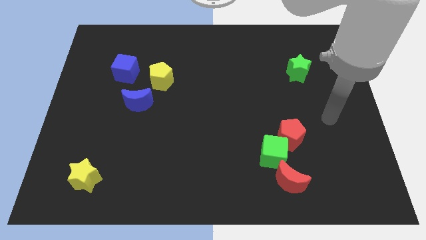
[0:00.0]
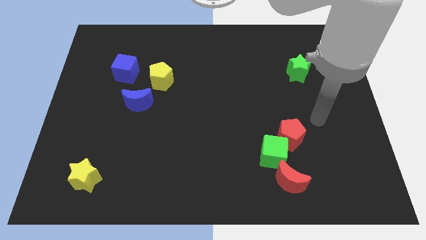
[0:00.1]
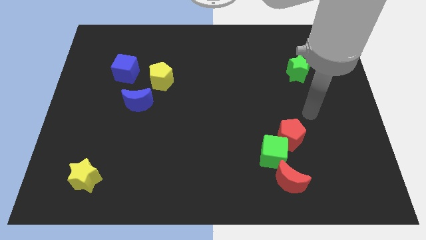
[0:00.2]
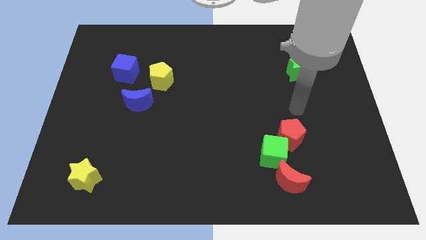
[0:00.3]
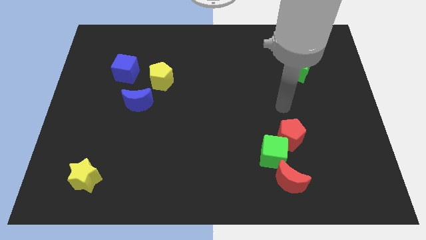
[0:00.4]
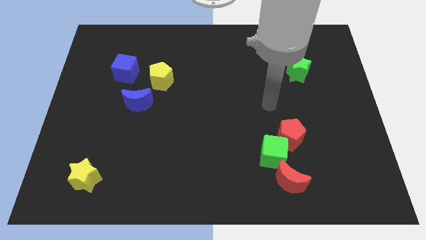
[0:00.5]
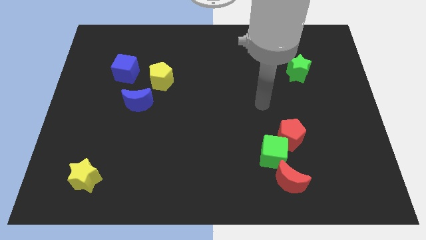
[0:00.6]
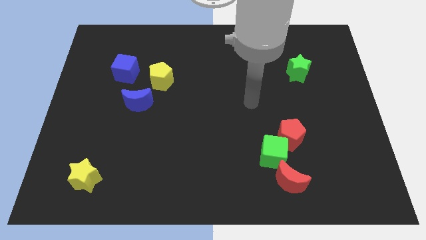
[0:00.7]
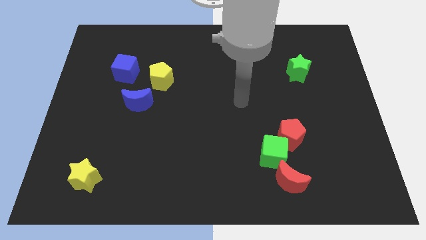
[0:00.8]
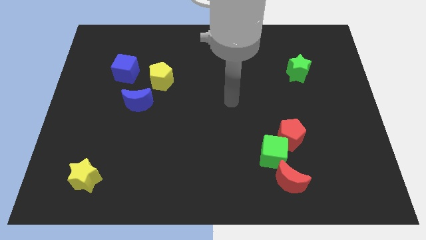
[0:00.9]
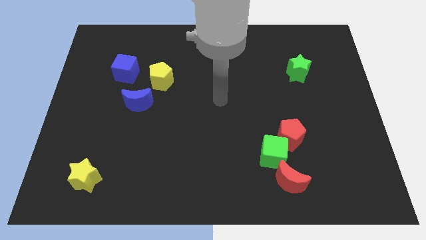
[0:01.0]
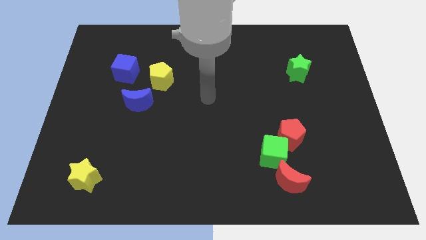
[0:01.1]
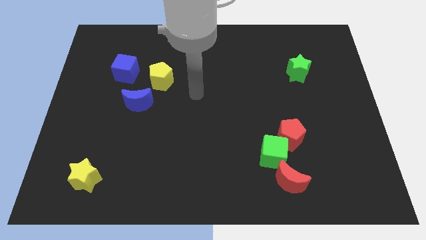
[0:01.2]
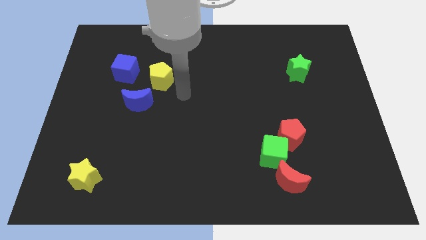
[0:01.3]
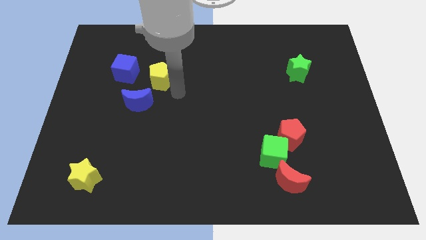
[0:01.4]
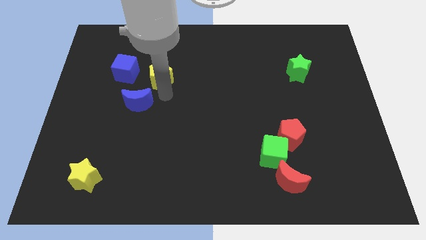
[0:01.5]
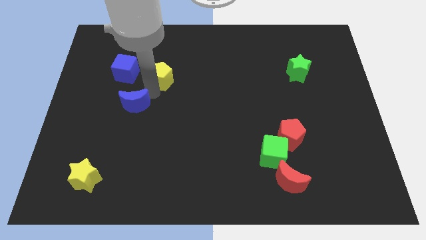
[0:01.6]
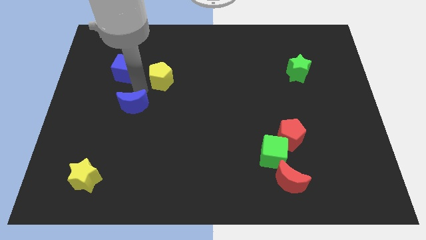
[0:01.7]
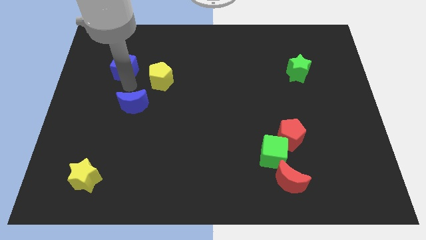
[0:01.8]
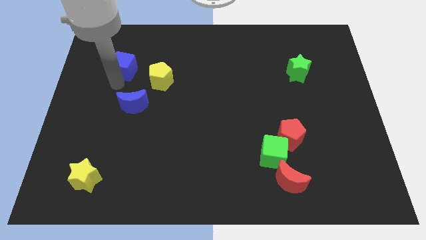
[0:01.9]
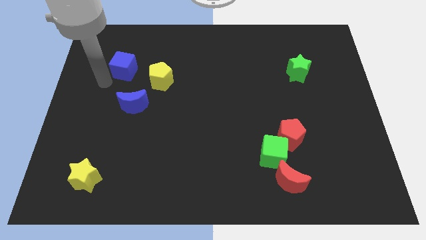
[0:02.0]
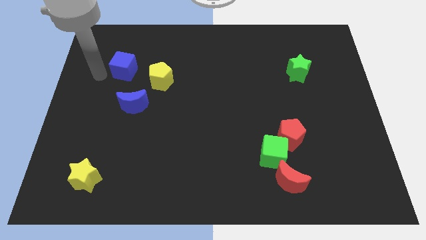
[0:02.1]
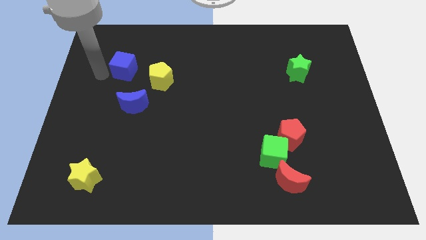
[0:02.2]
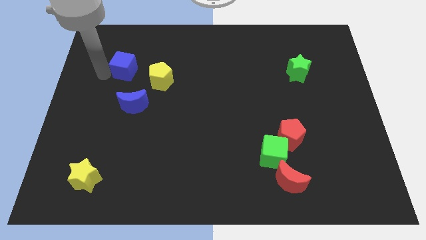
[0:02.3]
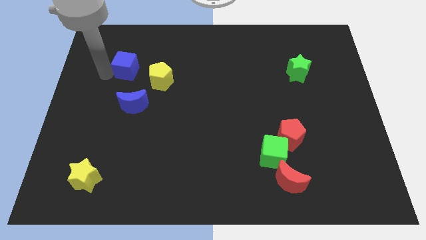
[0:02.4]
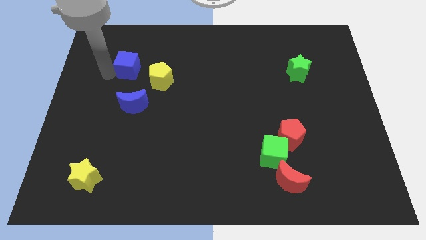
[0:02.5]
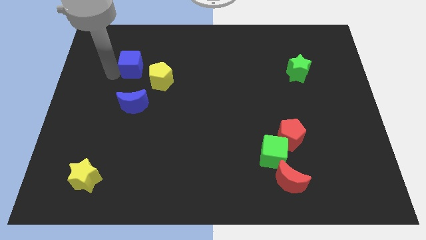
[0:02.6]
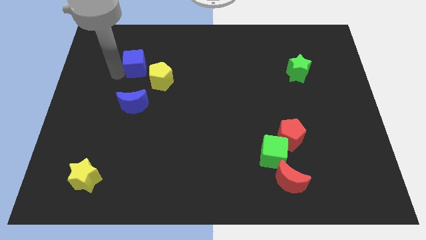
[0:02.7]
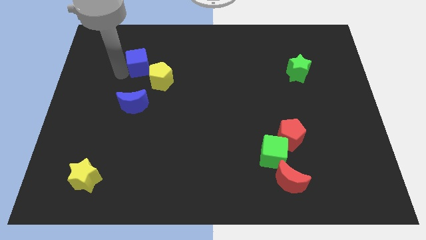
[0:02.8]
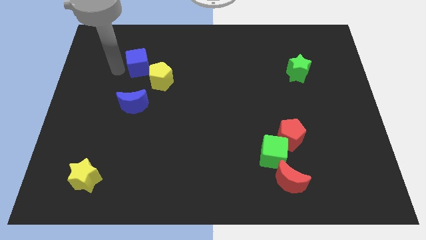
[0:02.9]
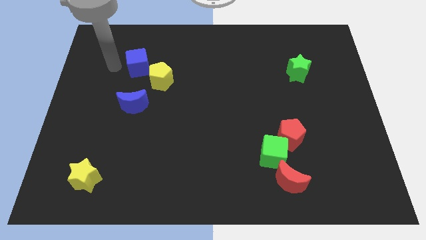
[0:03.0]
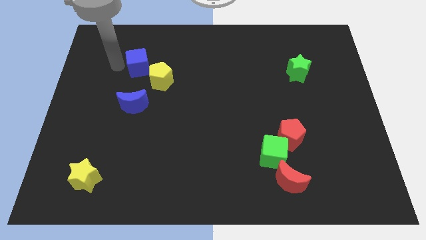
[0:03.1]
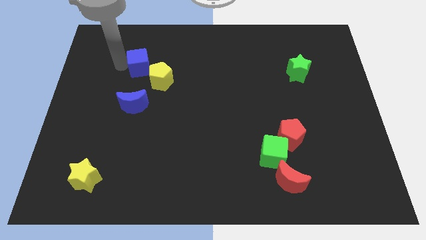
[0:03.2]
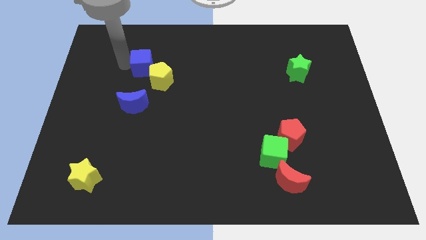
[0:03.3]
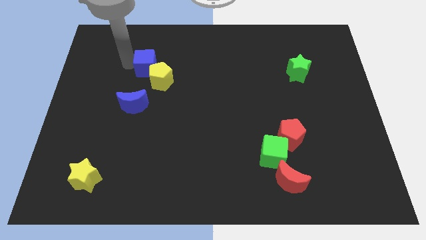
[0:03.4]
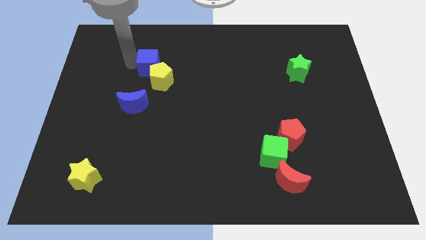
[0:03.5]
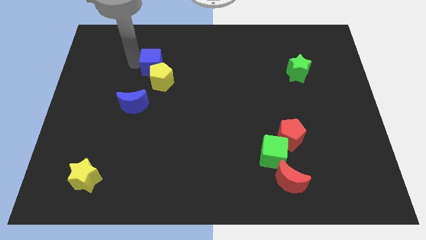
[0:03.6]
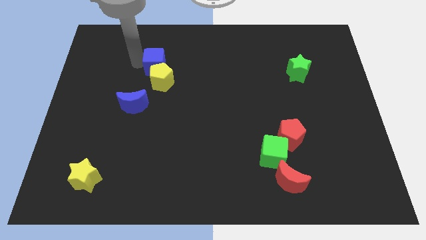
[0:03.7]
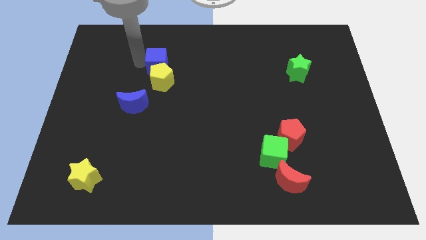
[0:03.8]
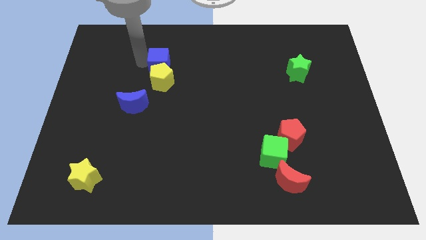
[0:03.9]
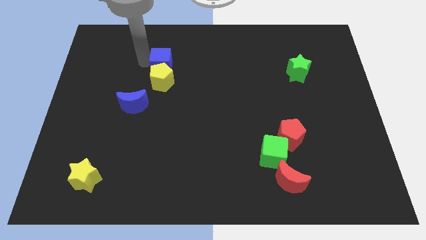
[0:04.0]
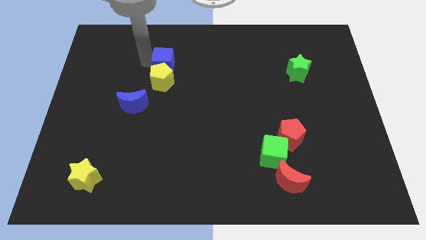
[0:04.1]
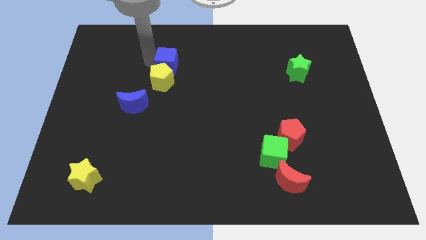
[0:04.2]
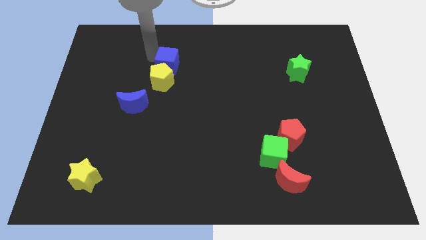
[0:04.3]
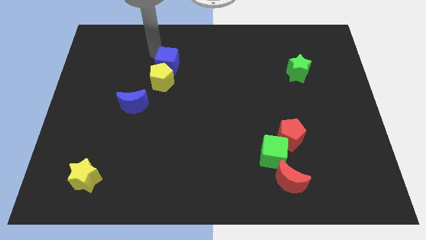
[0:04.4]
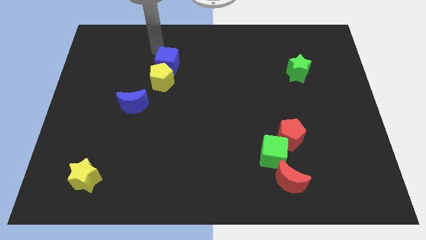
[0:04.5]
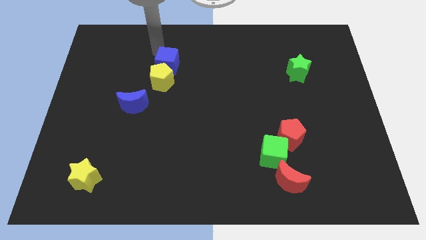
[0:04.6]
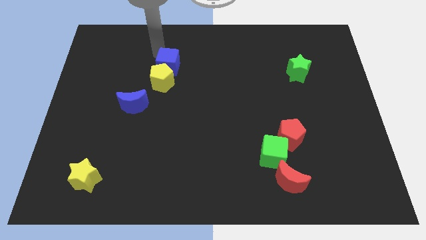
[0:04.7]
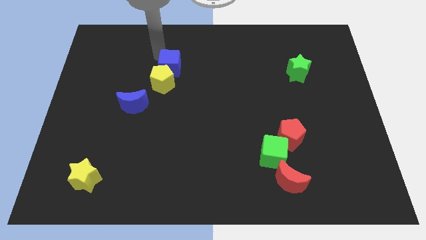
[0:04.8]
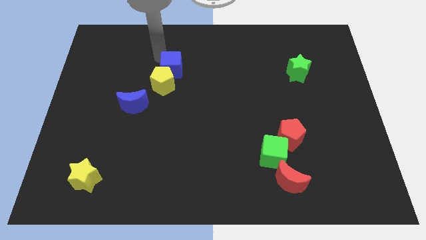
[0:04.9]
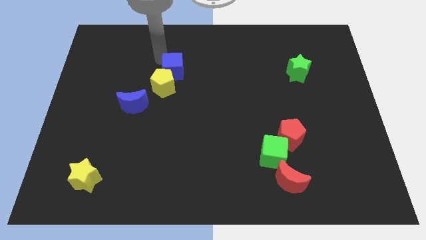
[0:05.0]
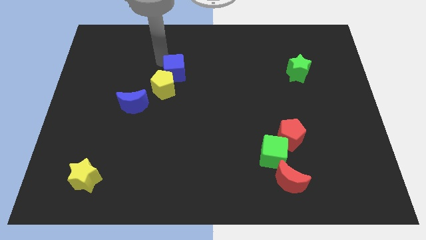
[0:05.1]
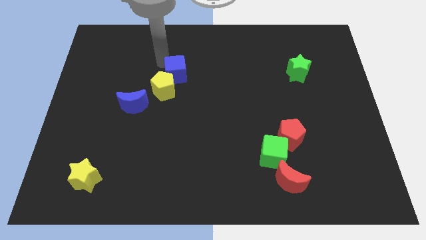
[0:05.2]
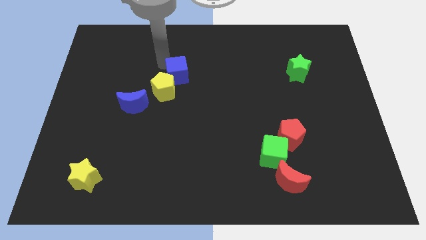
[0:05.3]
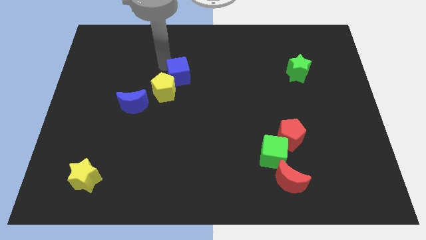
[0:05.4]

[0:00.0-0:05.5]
push the blue cube downwards and right diagonally slightly

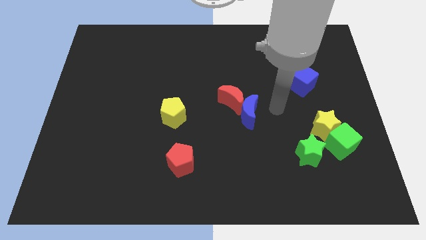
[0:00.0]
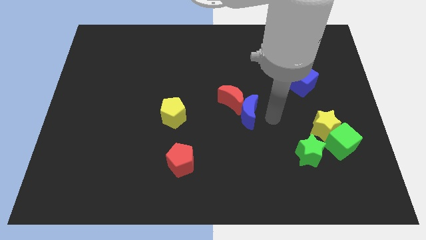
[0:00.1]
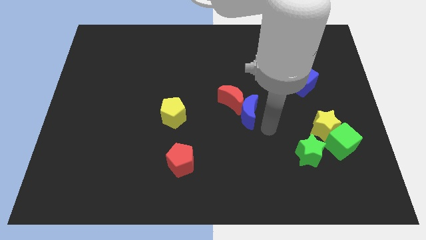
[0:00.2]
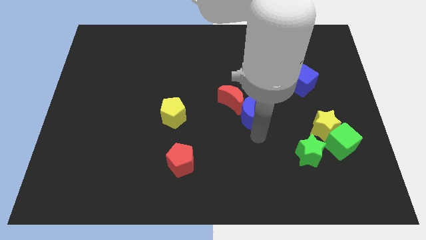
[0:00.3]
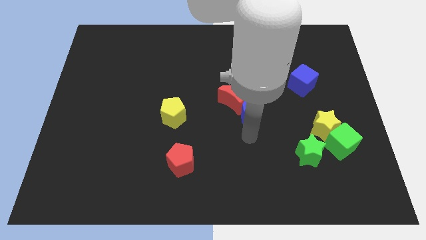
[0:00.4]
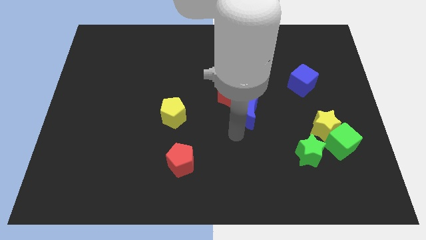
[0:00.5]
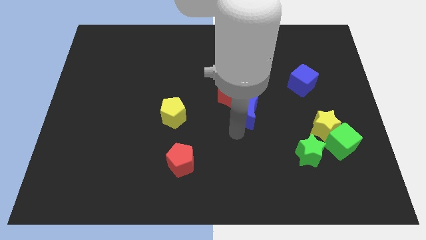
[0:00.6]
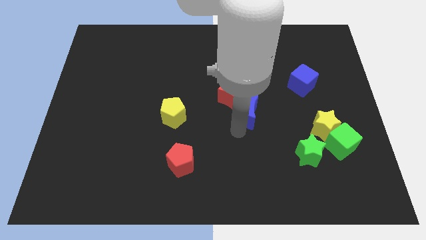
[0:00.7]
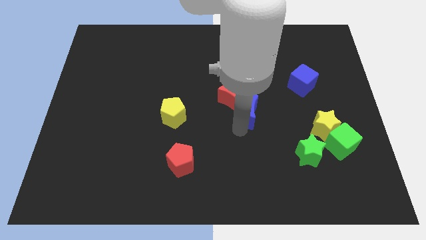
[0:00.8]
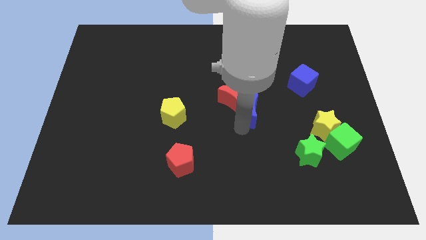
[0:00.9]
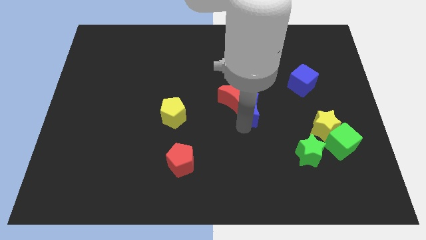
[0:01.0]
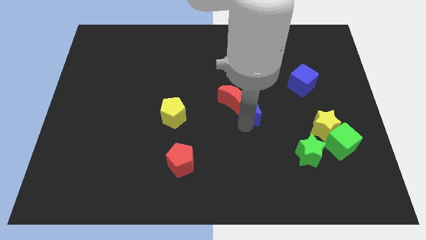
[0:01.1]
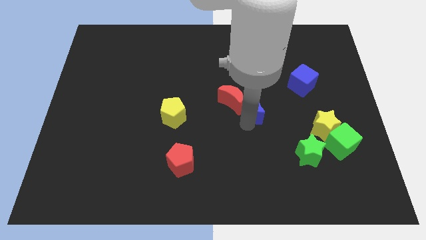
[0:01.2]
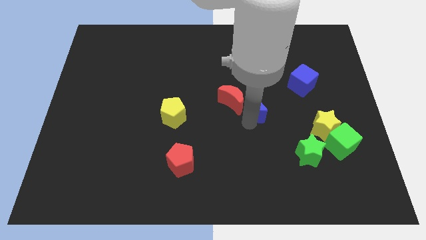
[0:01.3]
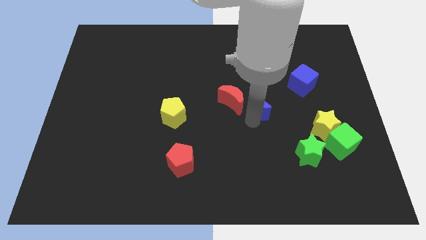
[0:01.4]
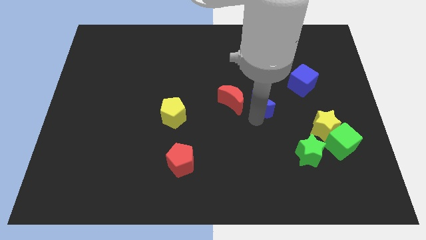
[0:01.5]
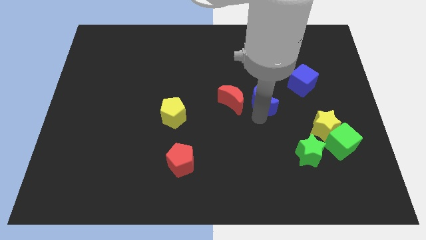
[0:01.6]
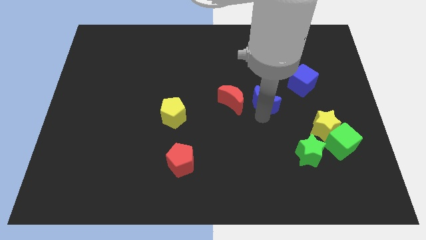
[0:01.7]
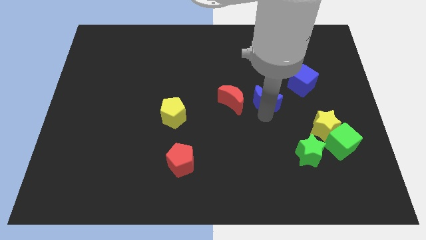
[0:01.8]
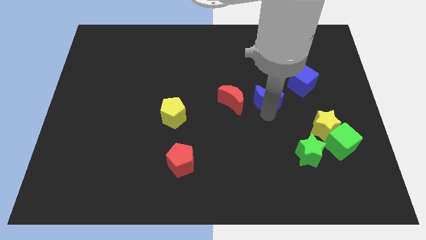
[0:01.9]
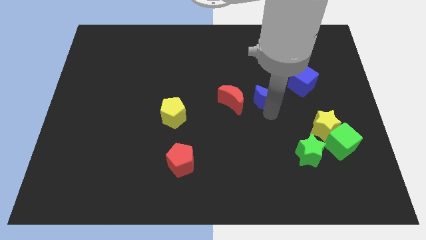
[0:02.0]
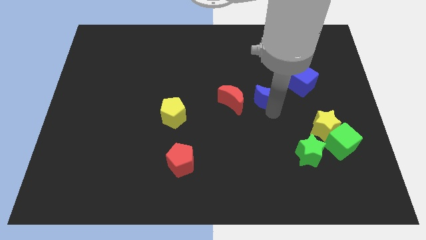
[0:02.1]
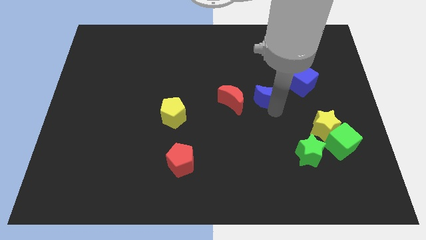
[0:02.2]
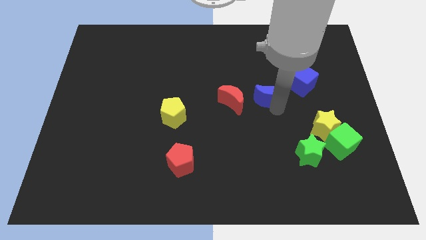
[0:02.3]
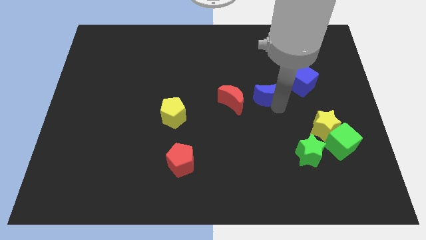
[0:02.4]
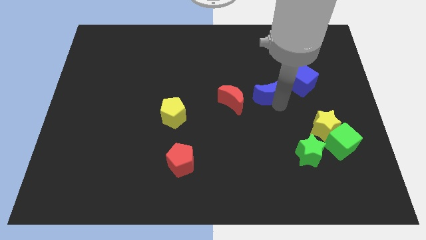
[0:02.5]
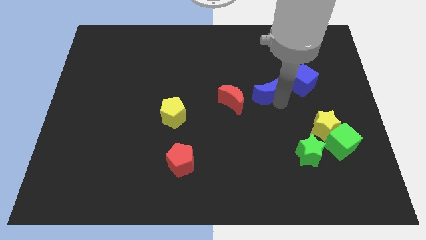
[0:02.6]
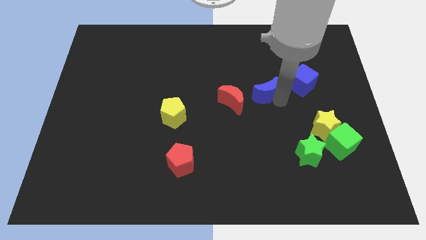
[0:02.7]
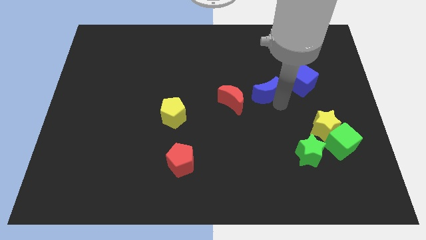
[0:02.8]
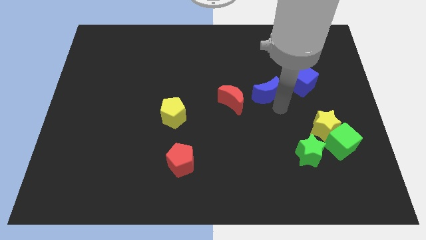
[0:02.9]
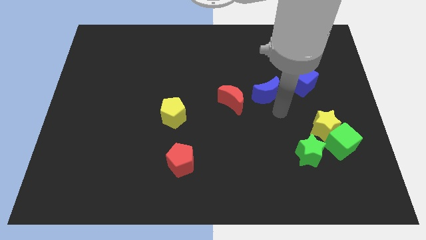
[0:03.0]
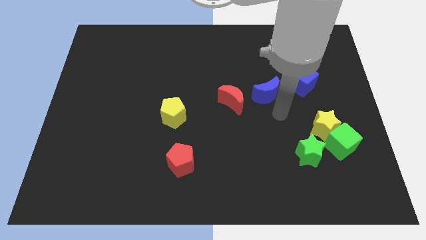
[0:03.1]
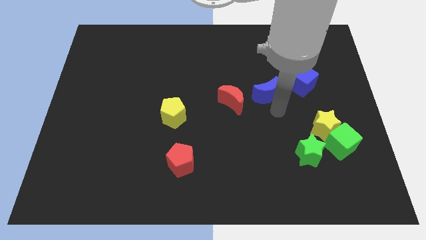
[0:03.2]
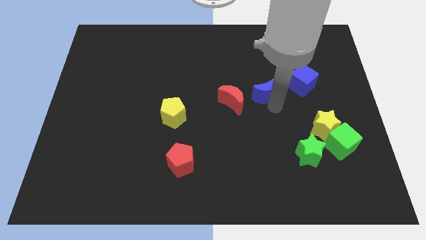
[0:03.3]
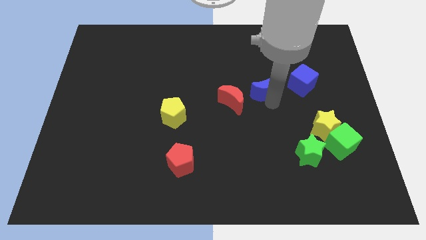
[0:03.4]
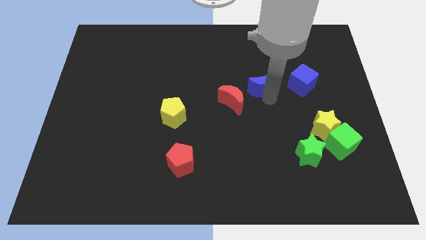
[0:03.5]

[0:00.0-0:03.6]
slide the blue moon up a little
